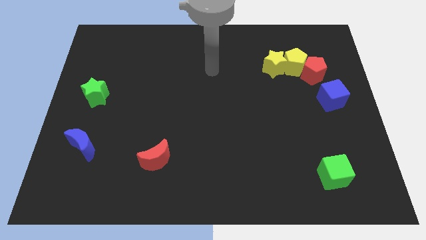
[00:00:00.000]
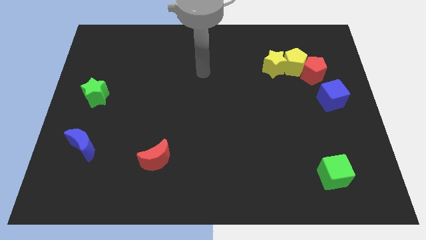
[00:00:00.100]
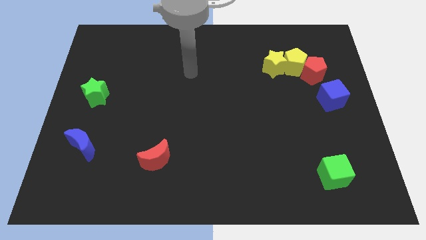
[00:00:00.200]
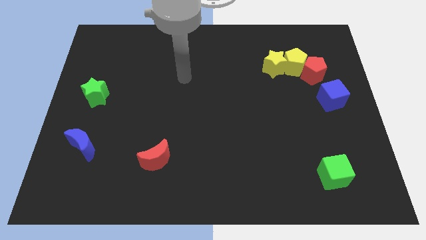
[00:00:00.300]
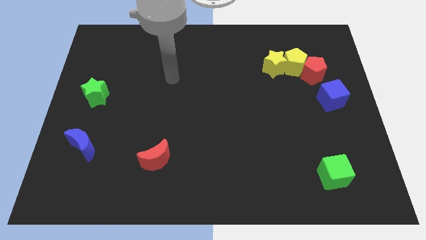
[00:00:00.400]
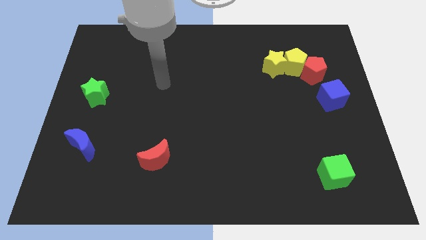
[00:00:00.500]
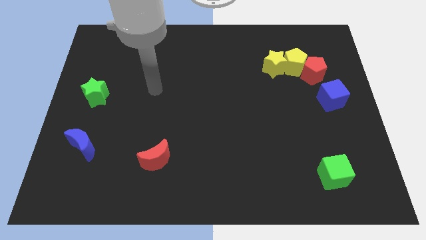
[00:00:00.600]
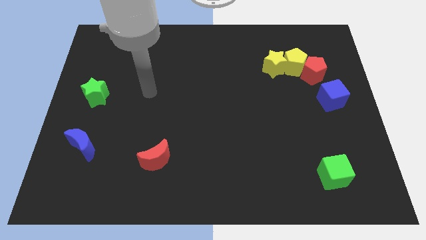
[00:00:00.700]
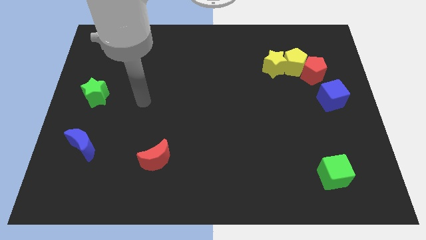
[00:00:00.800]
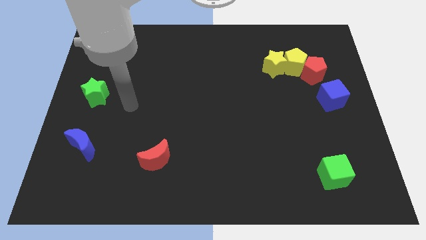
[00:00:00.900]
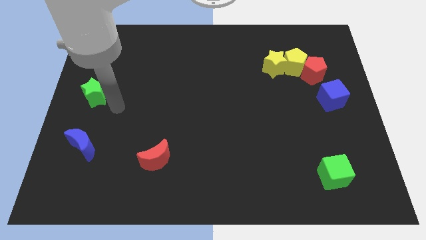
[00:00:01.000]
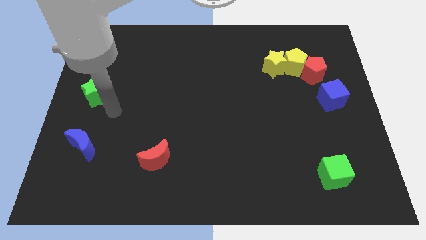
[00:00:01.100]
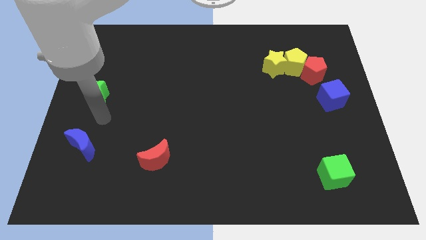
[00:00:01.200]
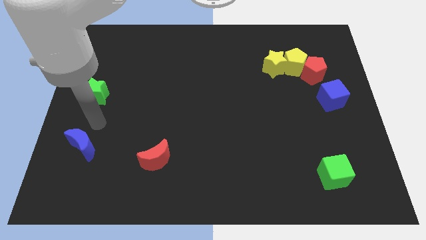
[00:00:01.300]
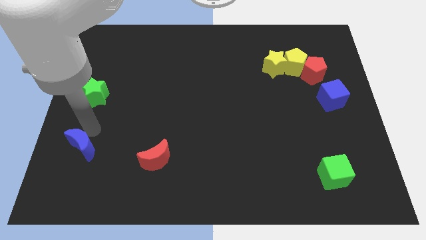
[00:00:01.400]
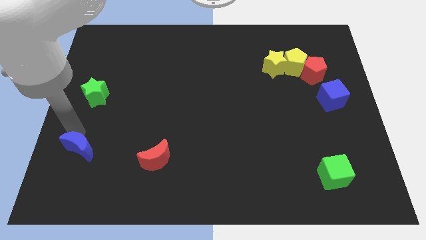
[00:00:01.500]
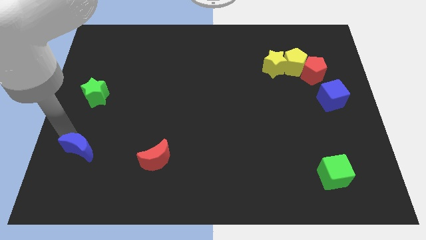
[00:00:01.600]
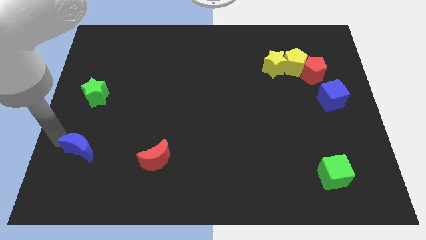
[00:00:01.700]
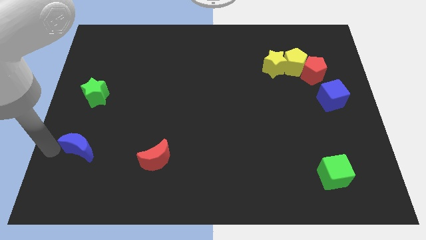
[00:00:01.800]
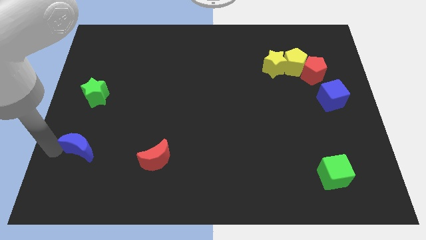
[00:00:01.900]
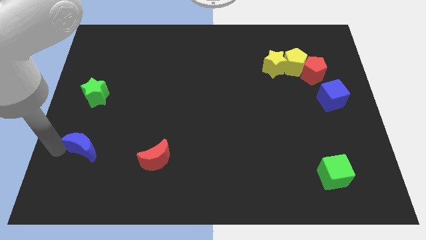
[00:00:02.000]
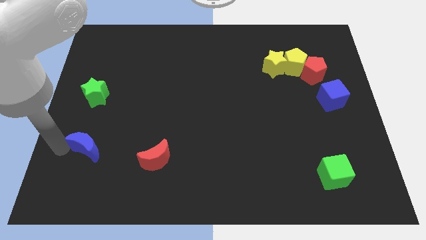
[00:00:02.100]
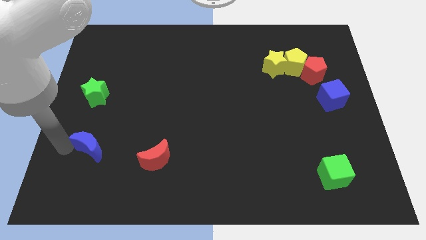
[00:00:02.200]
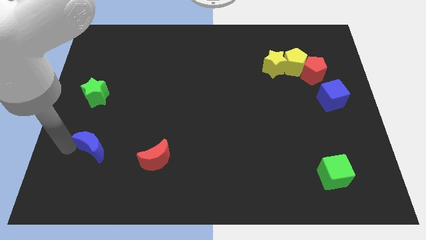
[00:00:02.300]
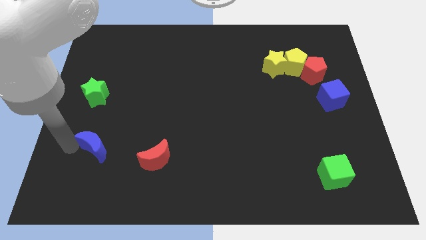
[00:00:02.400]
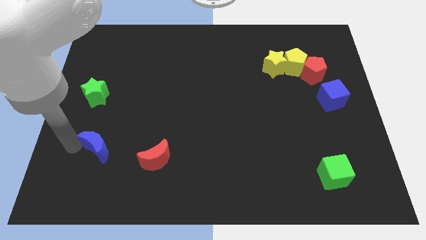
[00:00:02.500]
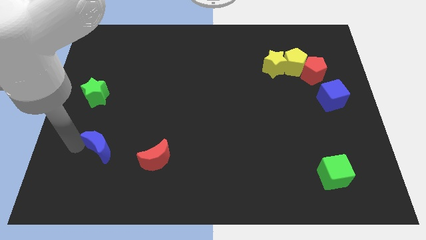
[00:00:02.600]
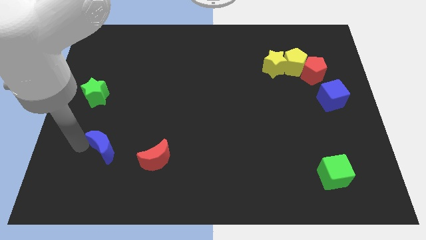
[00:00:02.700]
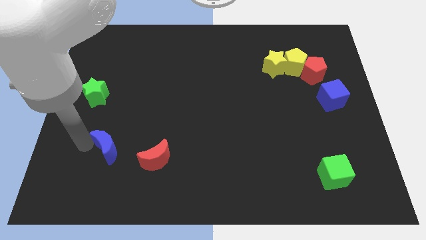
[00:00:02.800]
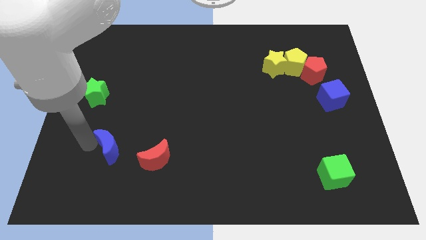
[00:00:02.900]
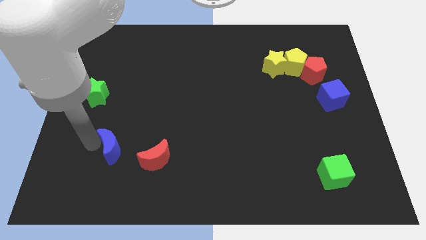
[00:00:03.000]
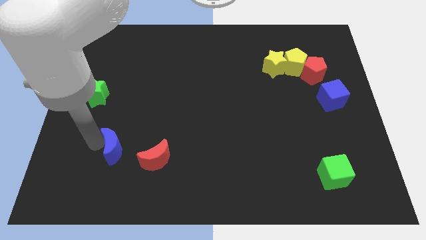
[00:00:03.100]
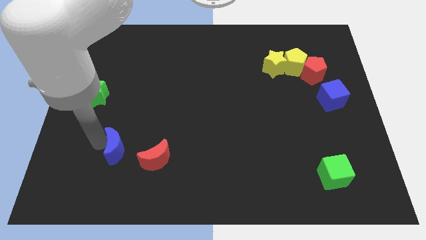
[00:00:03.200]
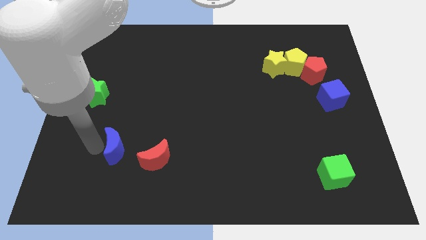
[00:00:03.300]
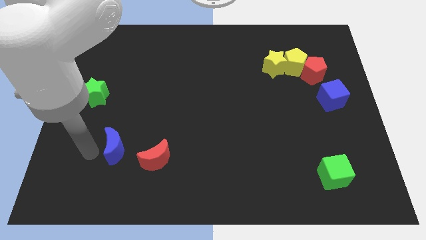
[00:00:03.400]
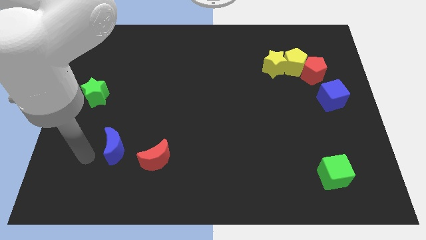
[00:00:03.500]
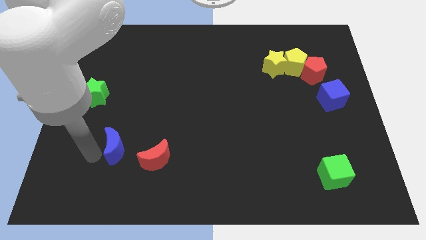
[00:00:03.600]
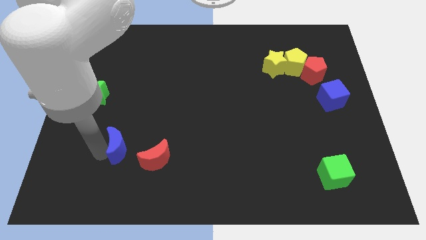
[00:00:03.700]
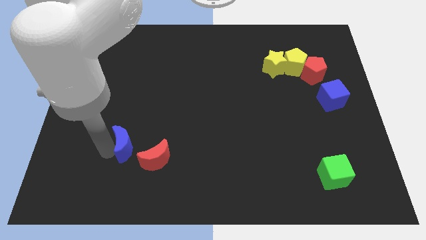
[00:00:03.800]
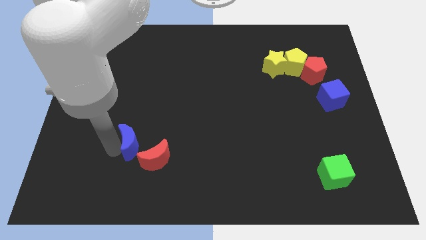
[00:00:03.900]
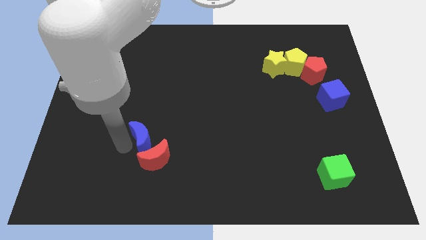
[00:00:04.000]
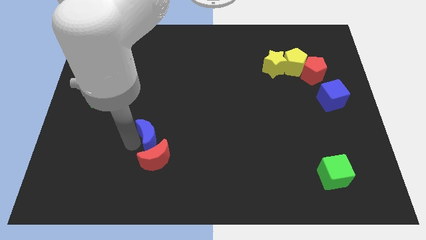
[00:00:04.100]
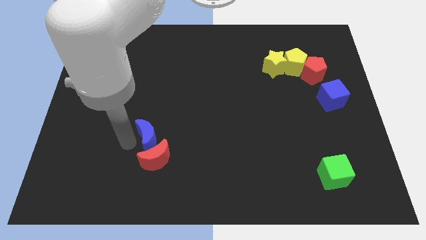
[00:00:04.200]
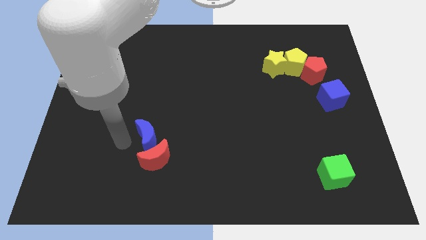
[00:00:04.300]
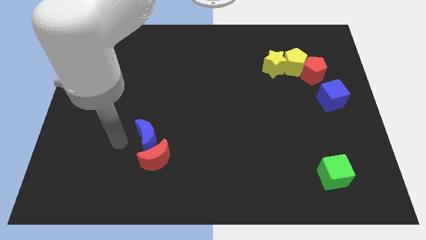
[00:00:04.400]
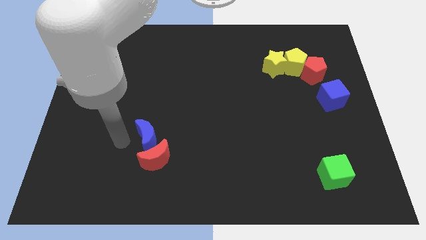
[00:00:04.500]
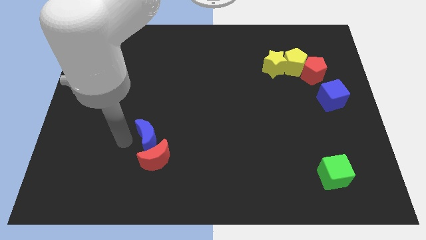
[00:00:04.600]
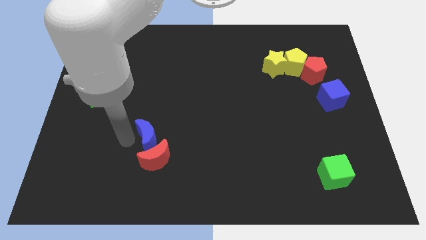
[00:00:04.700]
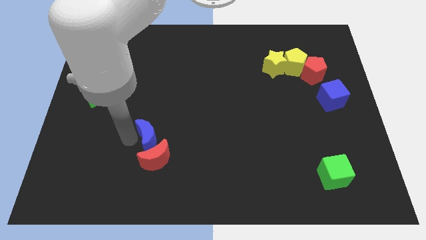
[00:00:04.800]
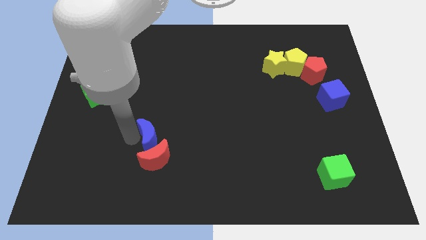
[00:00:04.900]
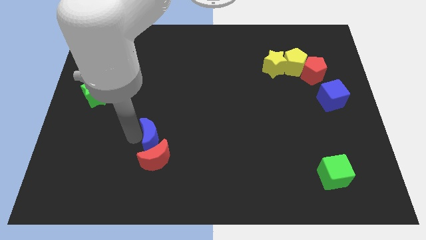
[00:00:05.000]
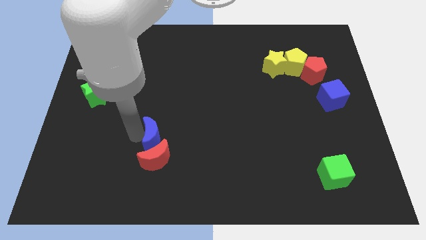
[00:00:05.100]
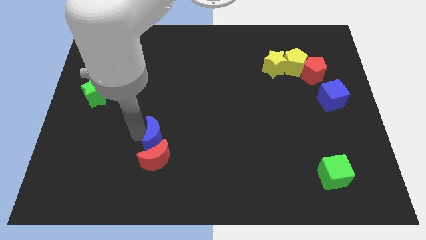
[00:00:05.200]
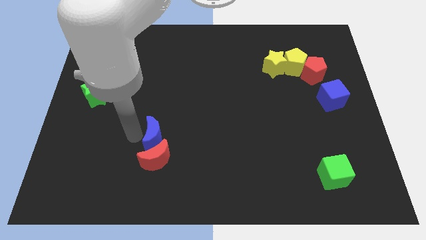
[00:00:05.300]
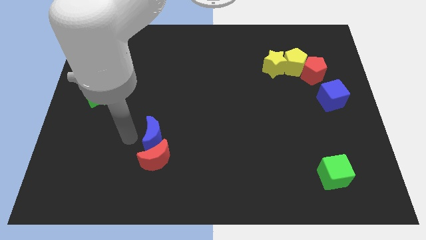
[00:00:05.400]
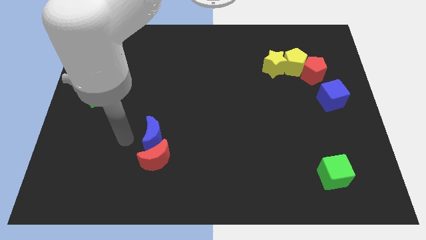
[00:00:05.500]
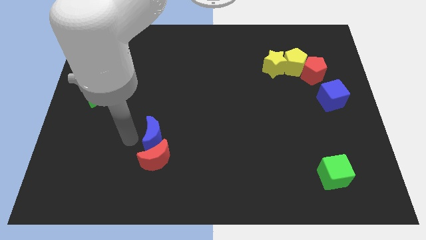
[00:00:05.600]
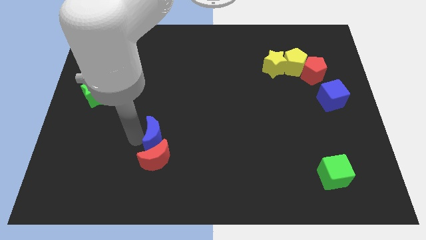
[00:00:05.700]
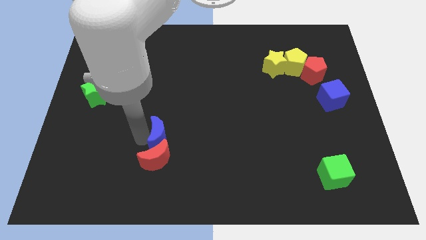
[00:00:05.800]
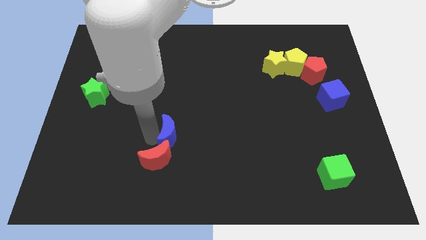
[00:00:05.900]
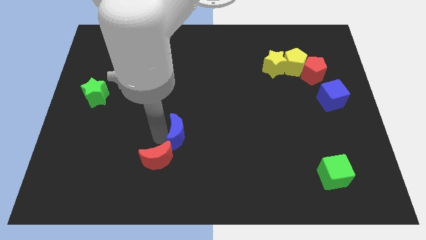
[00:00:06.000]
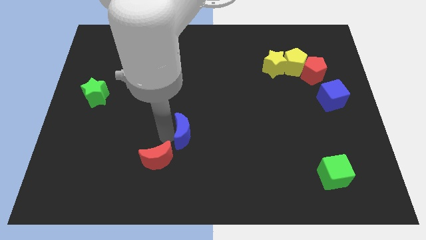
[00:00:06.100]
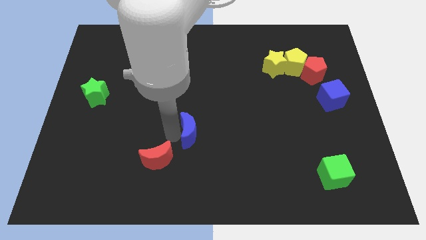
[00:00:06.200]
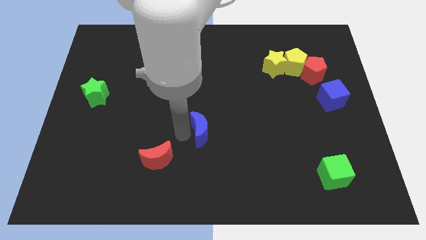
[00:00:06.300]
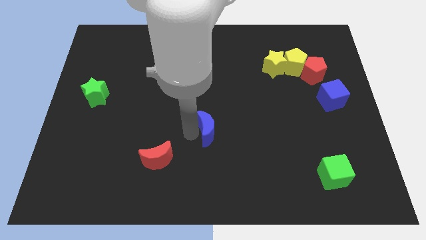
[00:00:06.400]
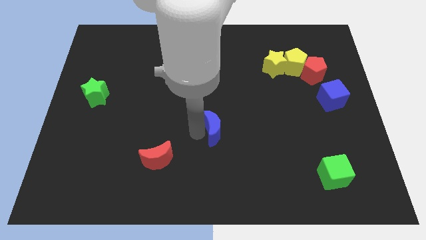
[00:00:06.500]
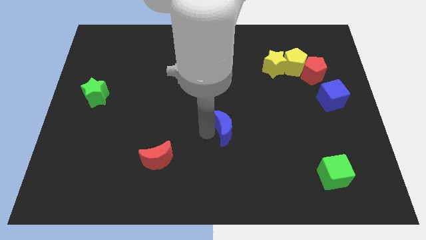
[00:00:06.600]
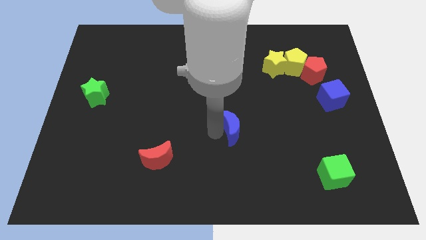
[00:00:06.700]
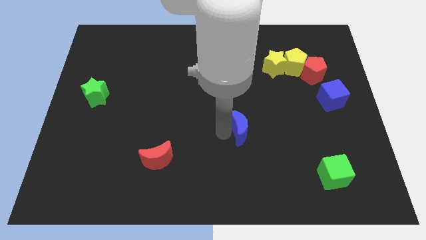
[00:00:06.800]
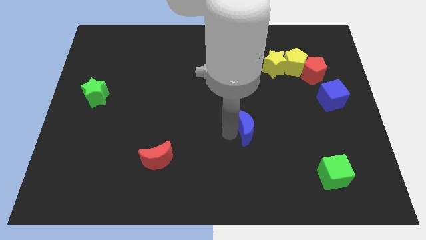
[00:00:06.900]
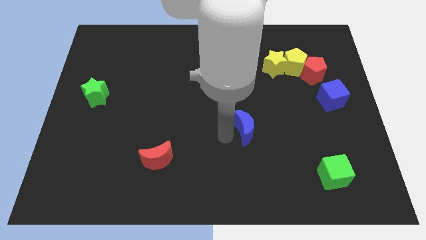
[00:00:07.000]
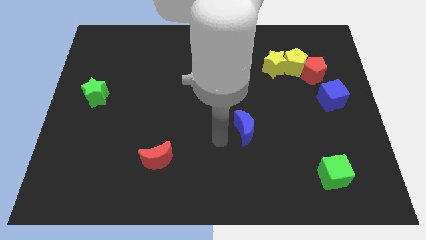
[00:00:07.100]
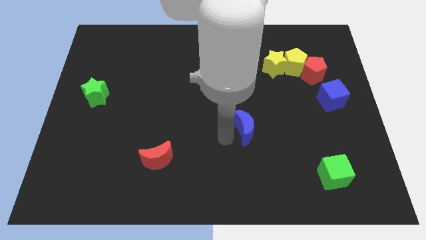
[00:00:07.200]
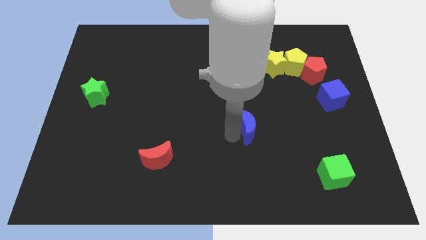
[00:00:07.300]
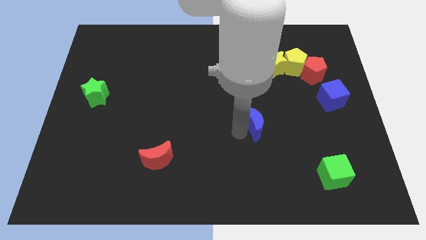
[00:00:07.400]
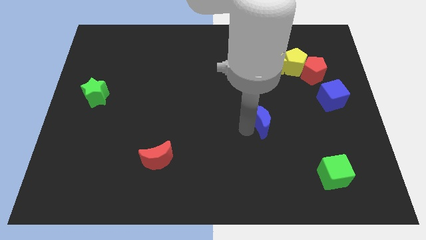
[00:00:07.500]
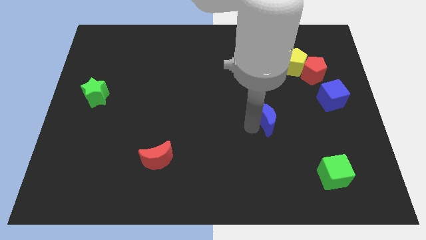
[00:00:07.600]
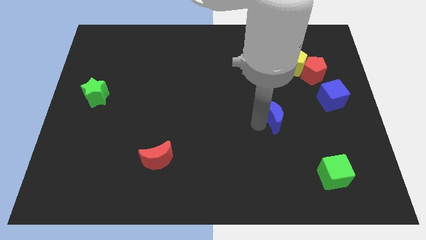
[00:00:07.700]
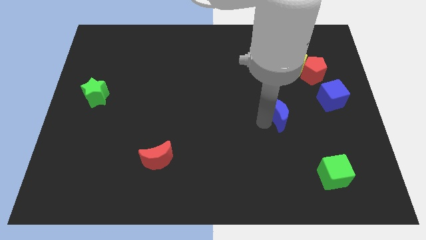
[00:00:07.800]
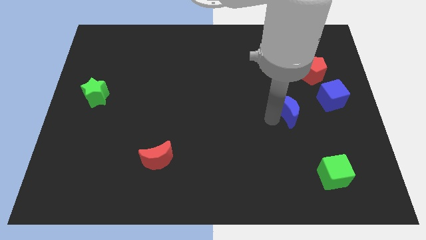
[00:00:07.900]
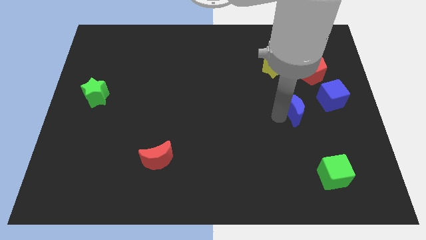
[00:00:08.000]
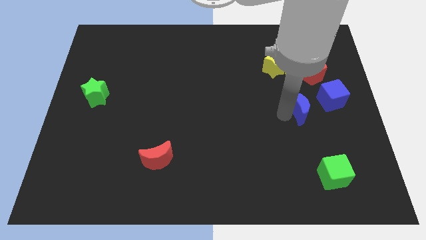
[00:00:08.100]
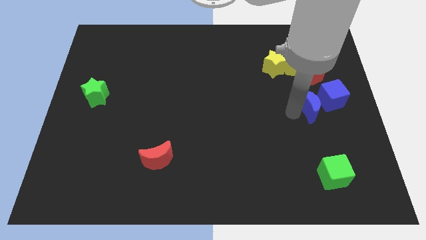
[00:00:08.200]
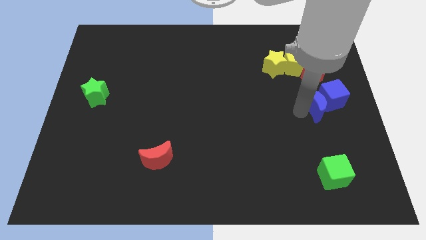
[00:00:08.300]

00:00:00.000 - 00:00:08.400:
put the blue moon next to the blue cube
